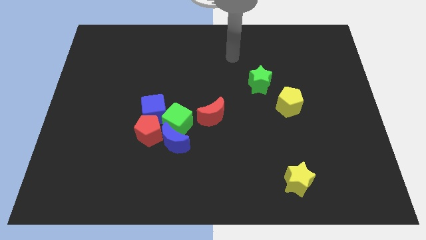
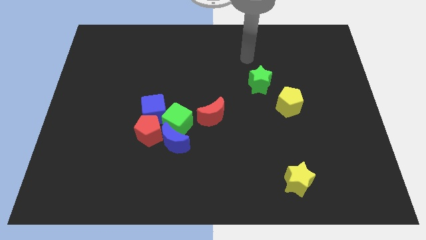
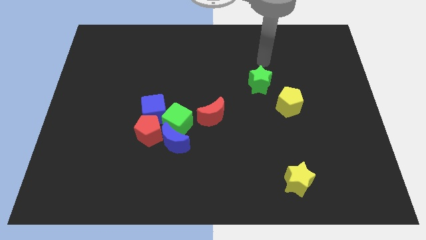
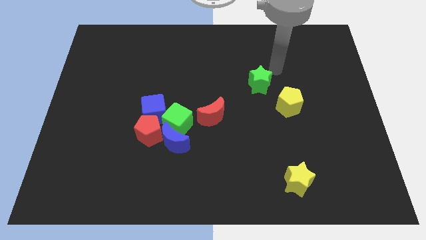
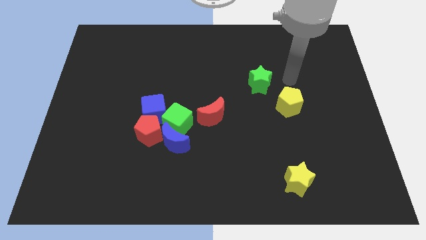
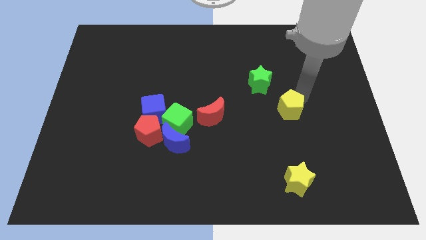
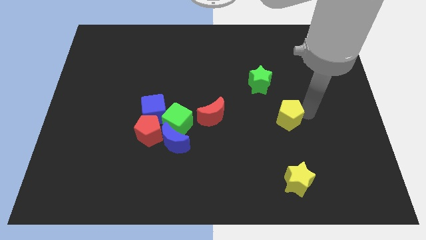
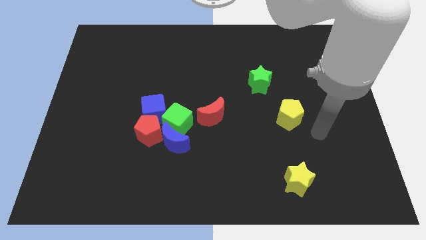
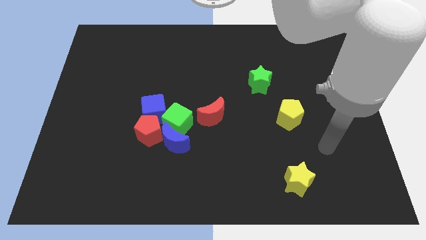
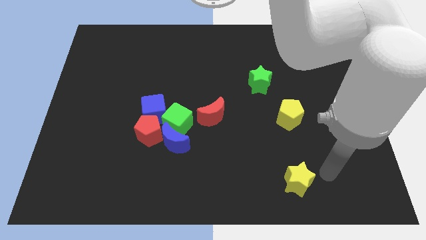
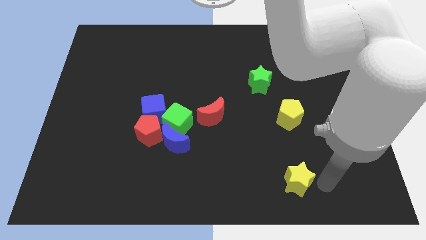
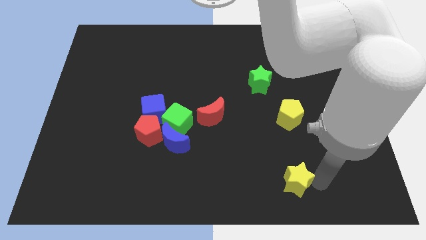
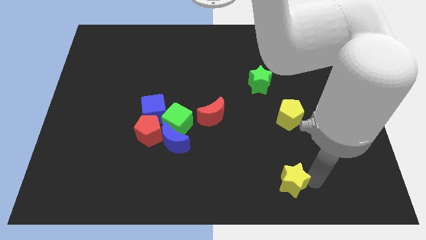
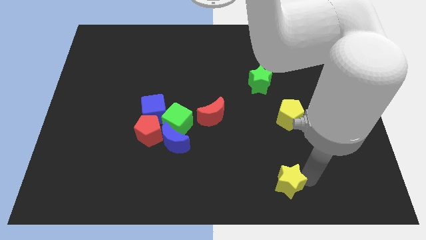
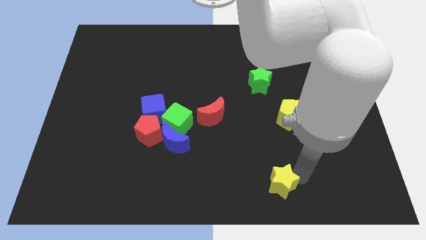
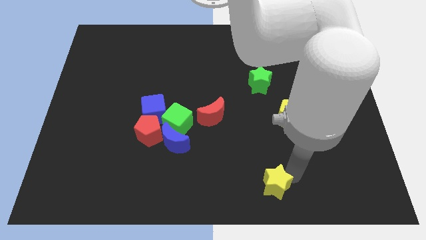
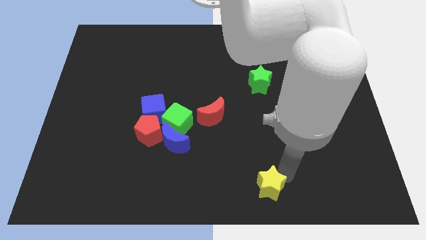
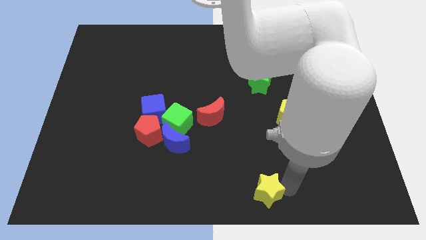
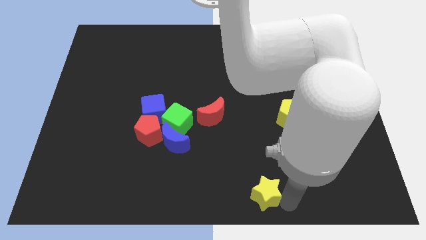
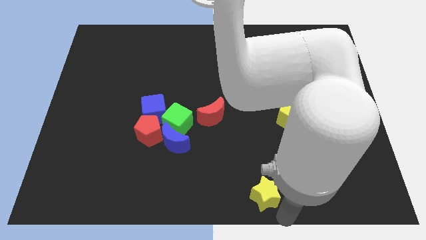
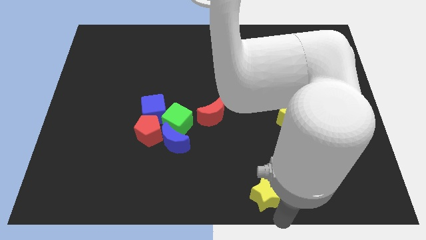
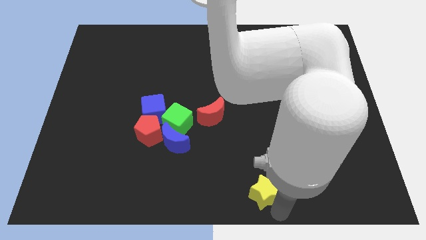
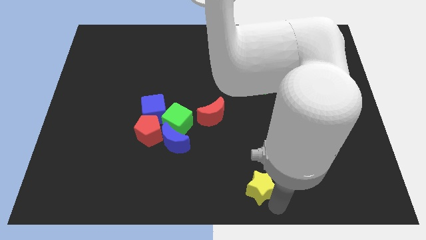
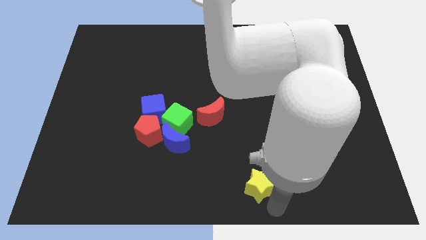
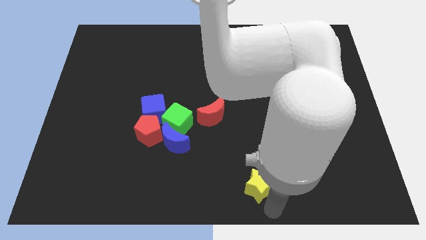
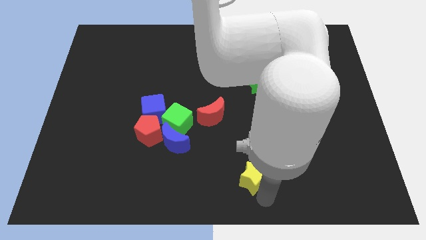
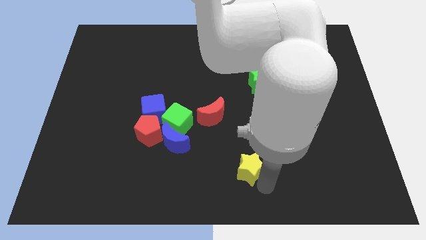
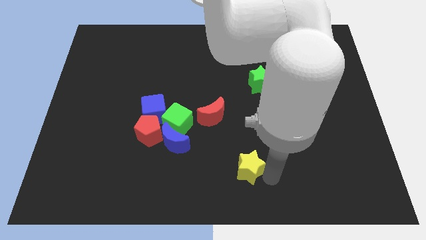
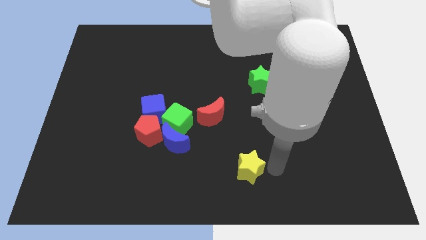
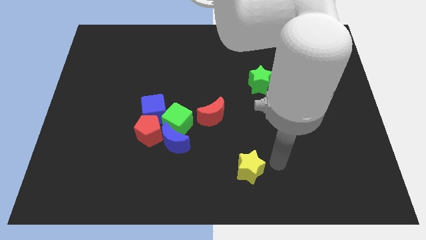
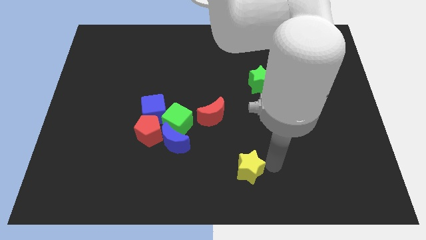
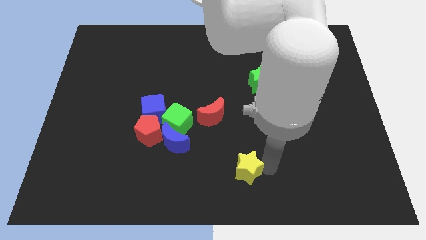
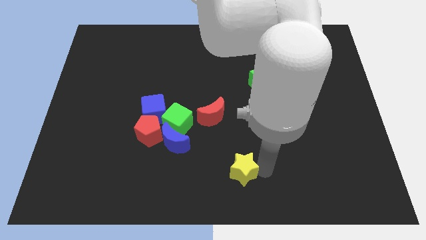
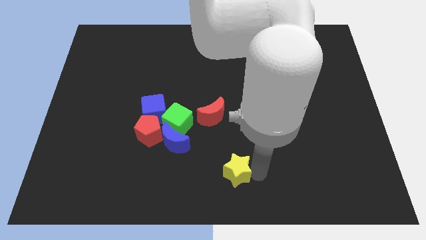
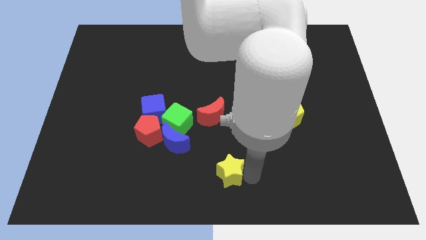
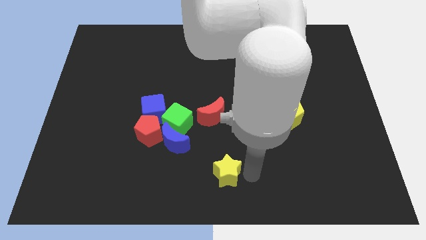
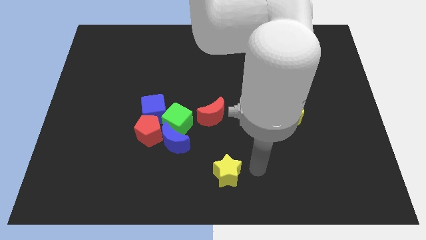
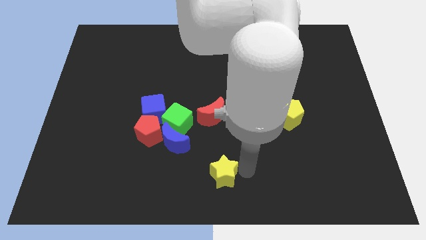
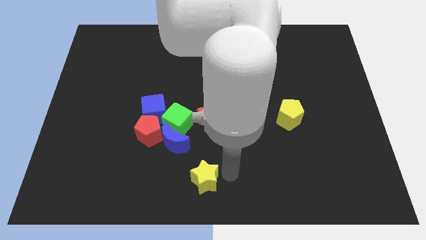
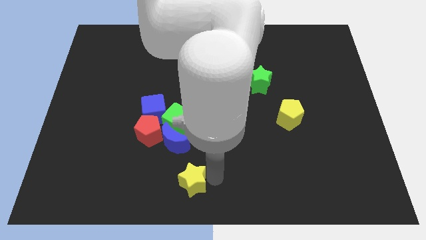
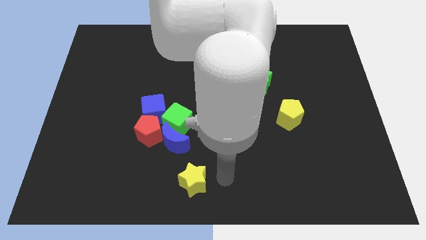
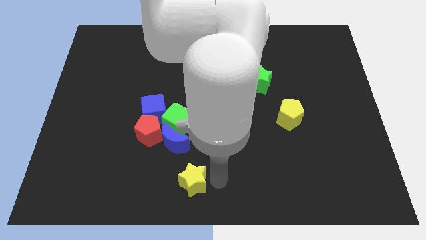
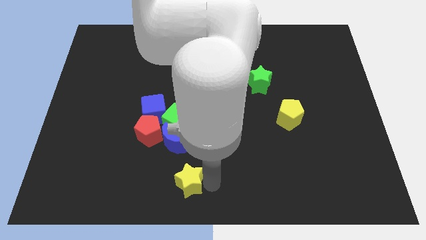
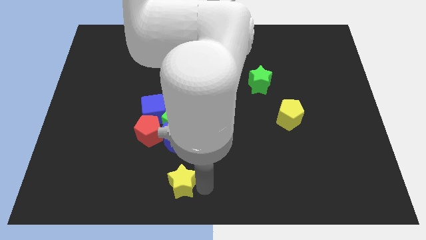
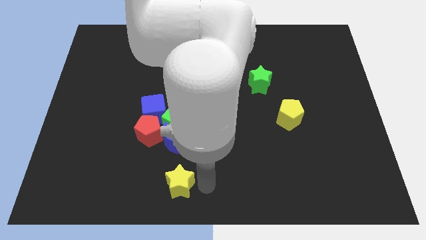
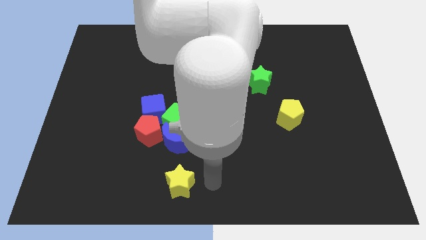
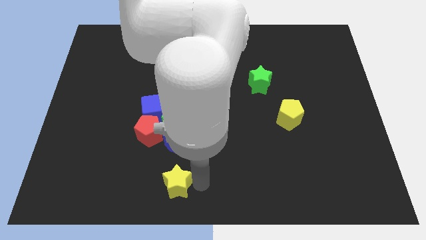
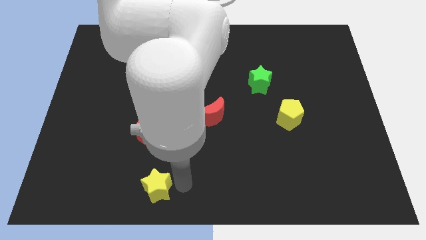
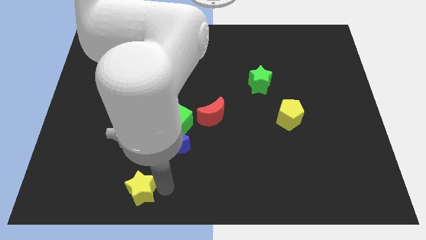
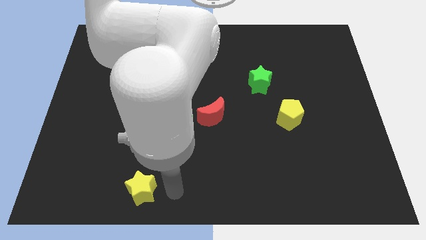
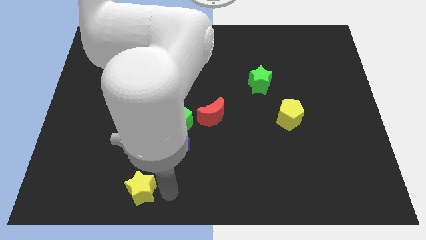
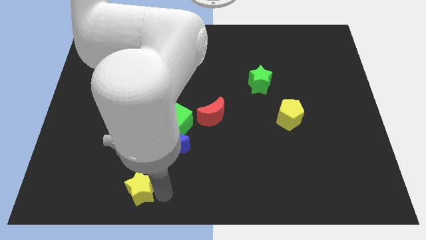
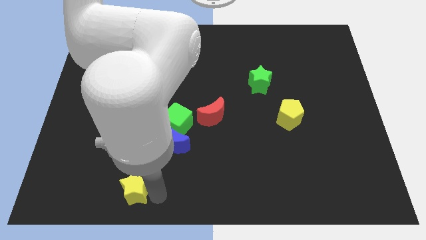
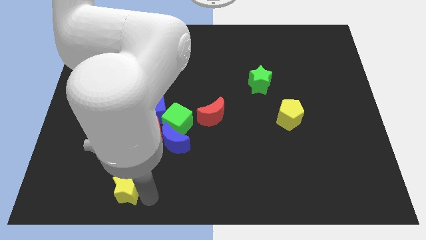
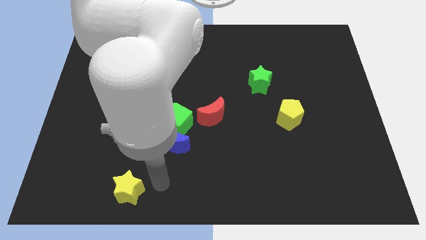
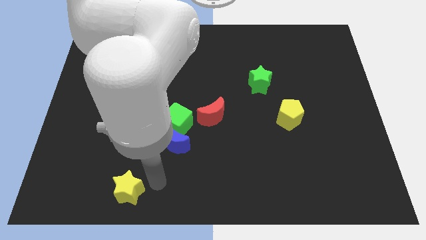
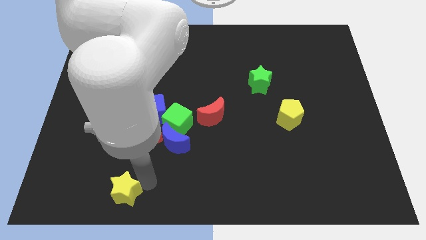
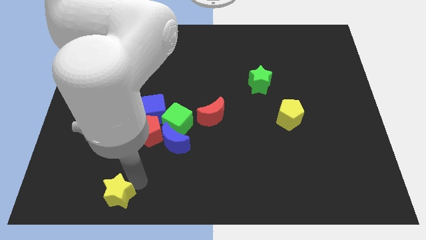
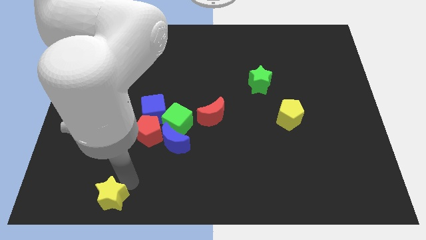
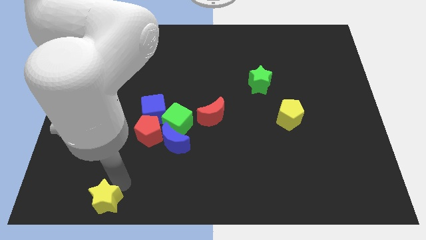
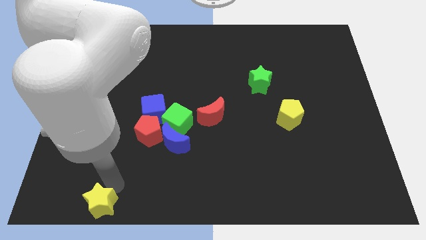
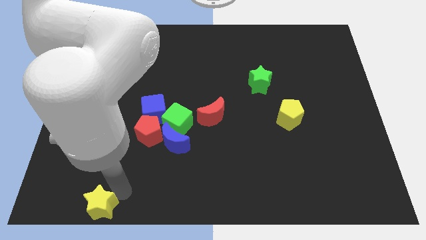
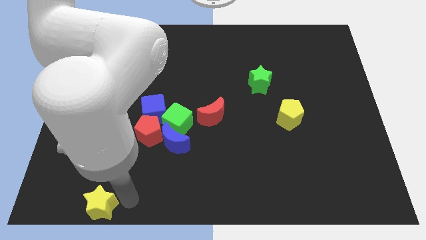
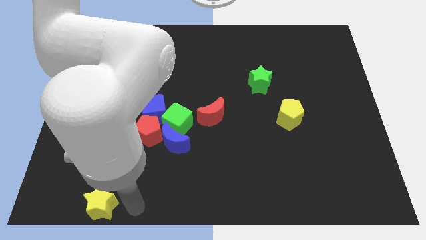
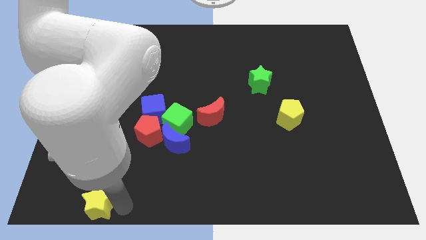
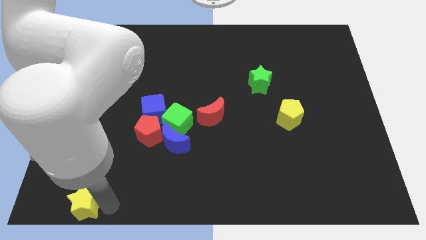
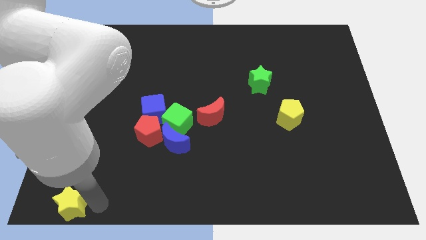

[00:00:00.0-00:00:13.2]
move the yellow star to the bottom left
